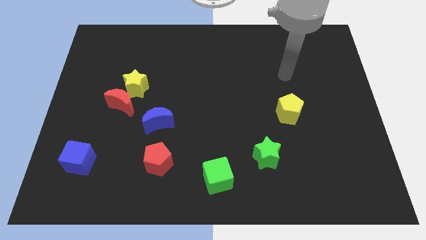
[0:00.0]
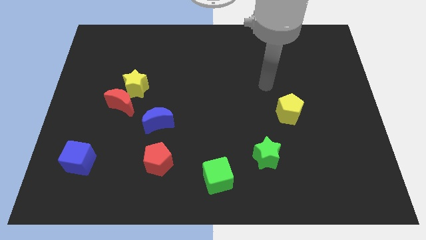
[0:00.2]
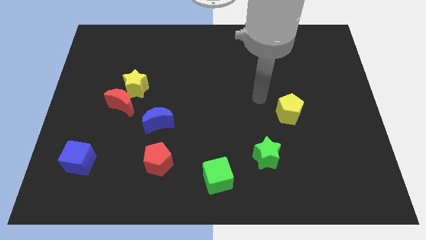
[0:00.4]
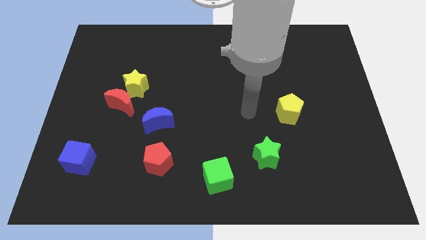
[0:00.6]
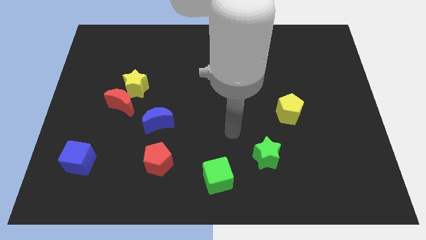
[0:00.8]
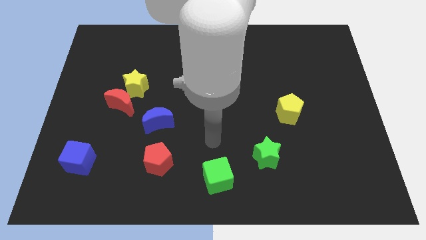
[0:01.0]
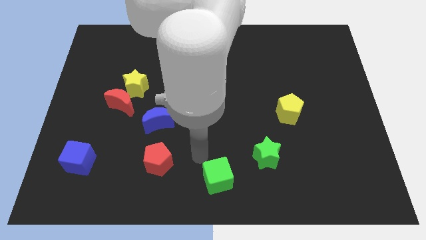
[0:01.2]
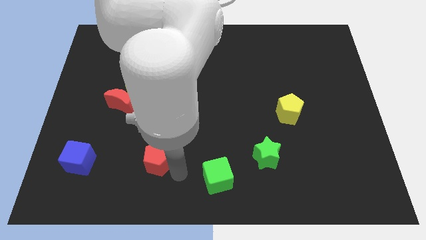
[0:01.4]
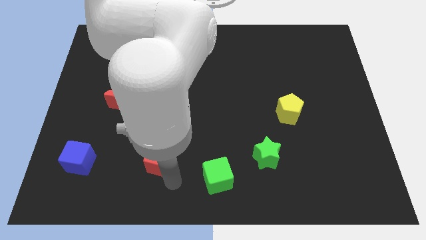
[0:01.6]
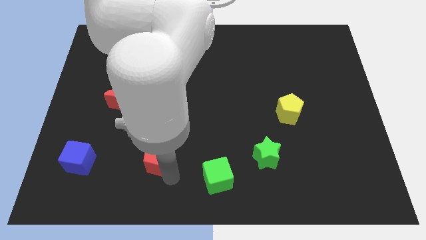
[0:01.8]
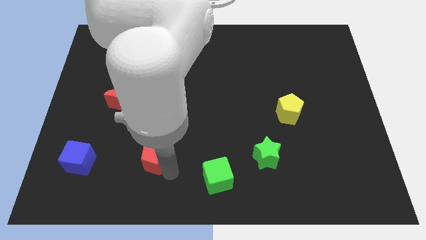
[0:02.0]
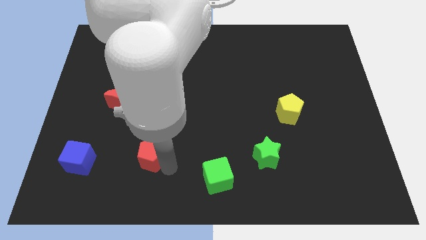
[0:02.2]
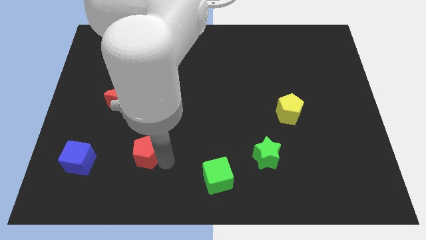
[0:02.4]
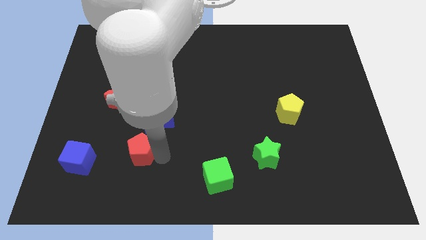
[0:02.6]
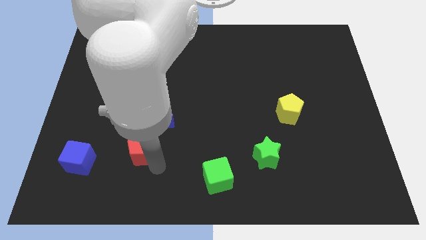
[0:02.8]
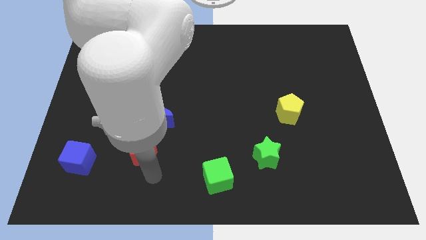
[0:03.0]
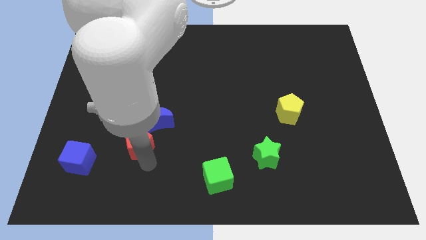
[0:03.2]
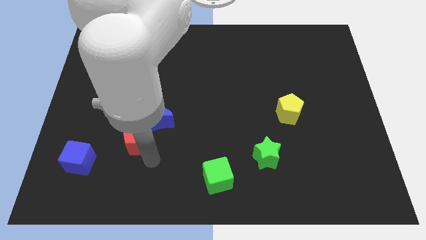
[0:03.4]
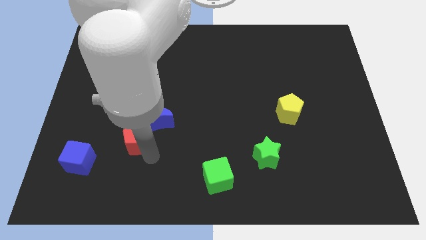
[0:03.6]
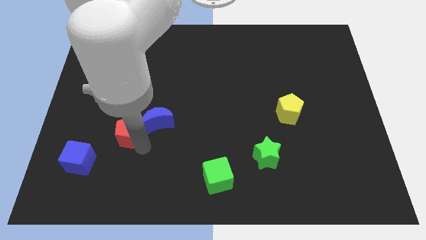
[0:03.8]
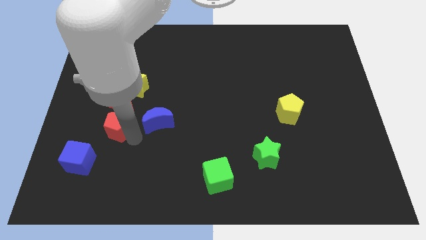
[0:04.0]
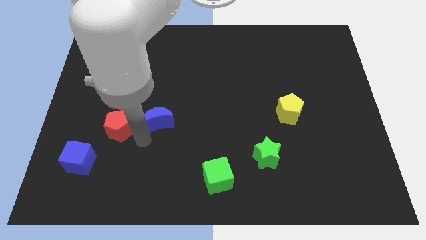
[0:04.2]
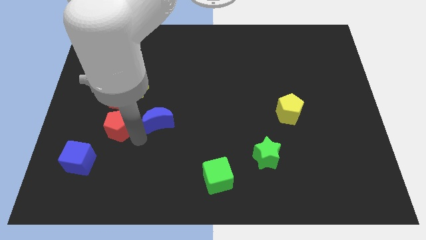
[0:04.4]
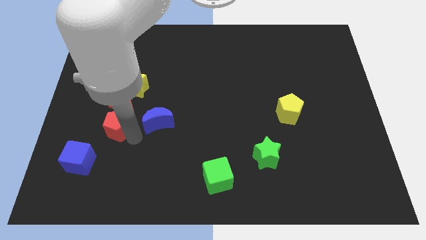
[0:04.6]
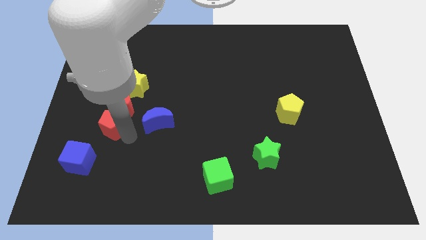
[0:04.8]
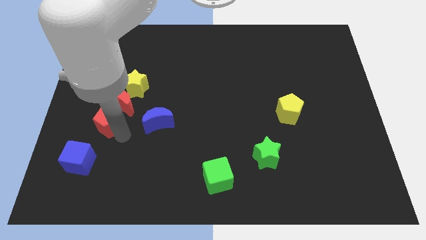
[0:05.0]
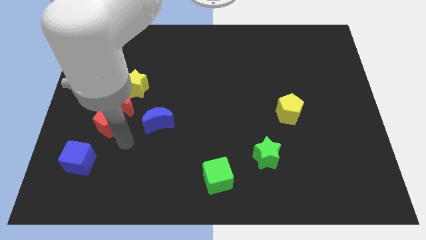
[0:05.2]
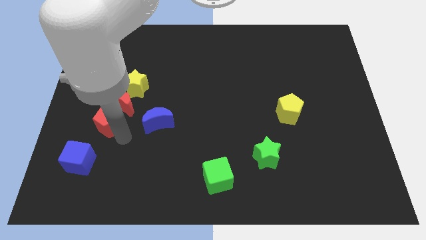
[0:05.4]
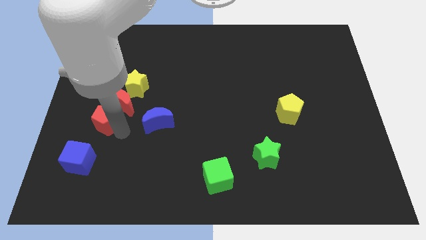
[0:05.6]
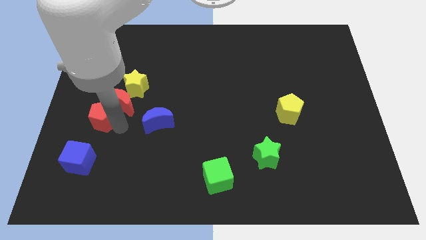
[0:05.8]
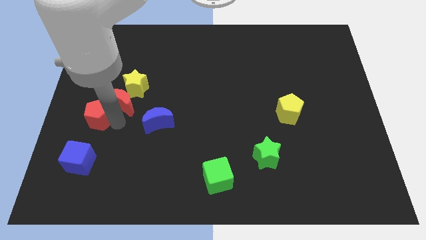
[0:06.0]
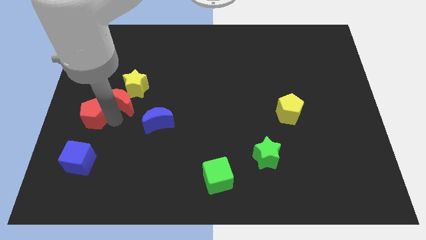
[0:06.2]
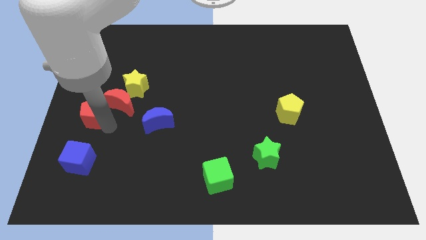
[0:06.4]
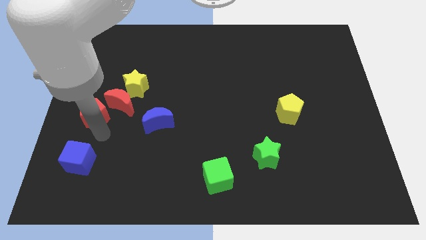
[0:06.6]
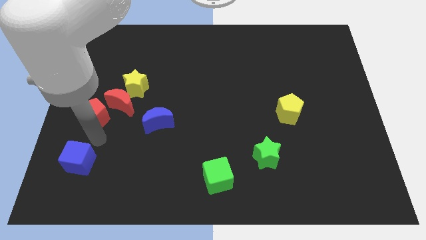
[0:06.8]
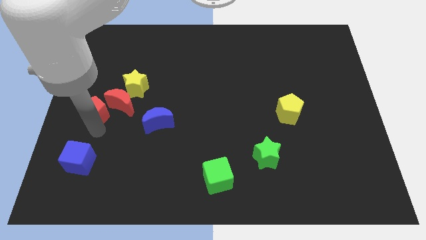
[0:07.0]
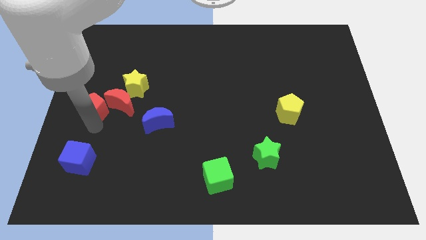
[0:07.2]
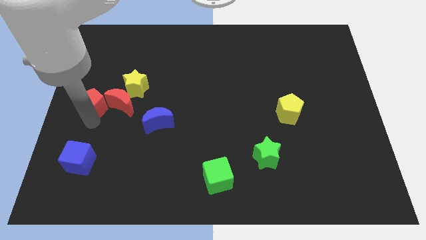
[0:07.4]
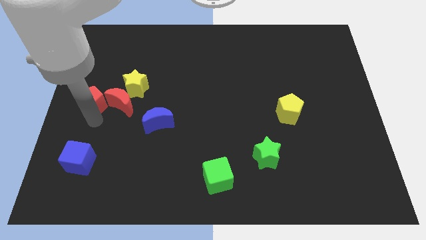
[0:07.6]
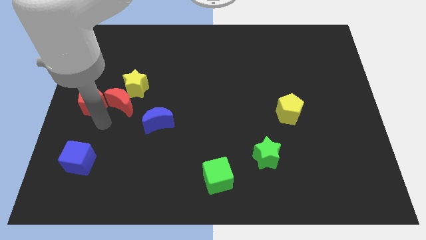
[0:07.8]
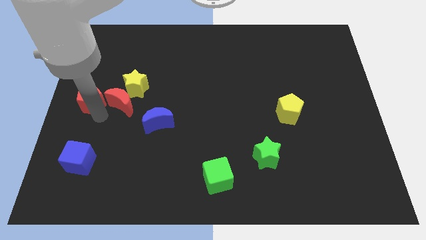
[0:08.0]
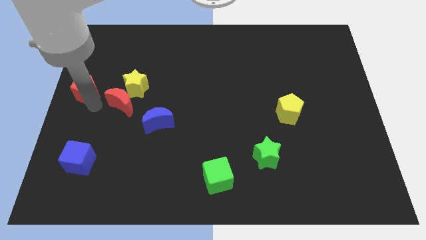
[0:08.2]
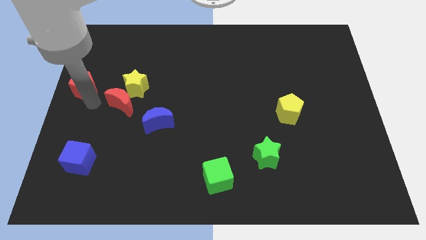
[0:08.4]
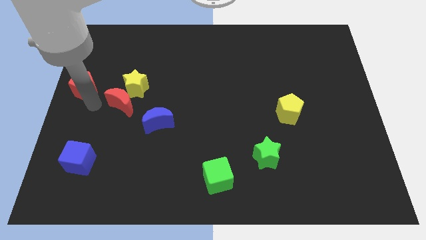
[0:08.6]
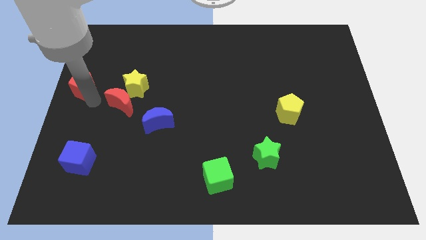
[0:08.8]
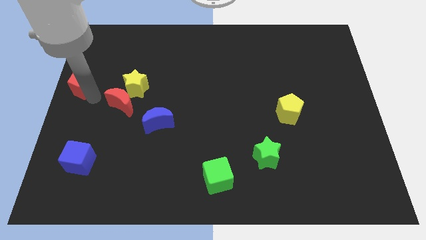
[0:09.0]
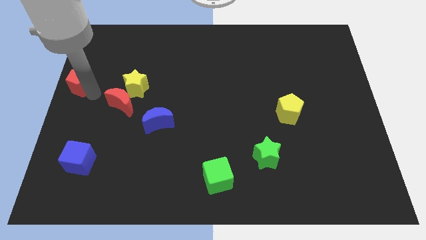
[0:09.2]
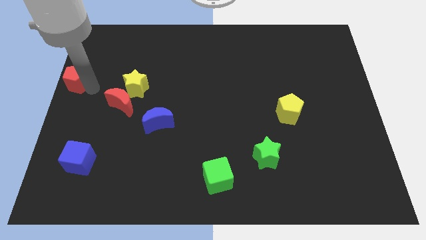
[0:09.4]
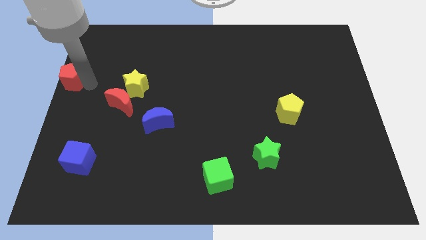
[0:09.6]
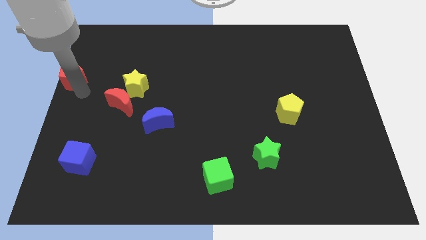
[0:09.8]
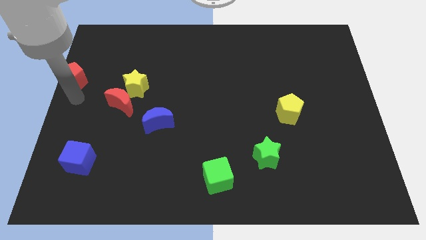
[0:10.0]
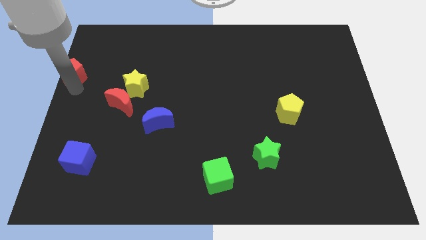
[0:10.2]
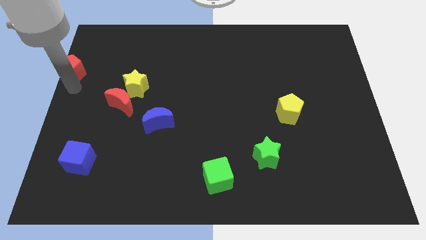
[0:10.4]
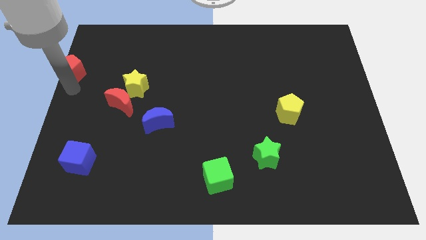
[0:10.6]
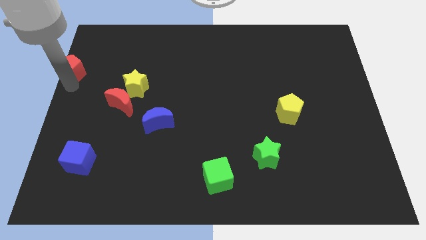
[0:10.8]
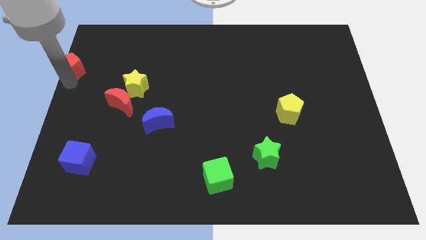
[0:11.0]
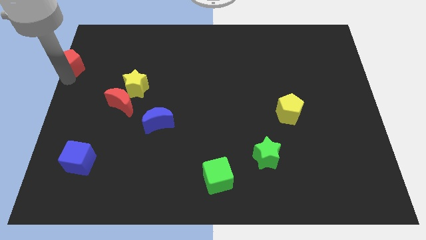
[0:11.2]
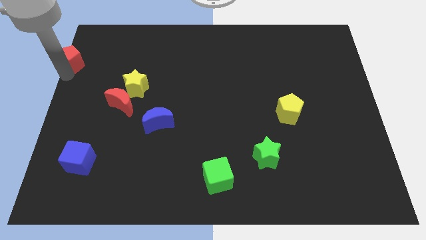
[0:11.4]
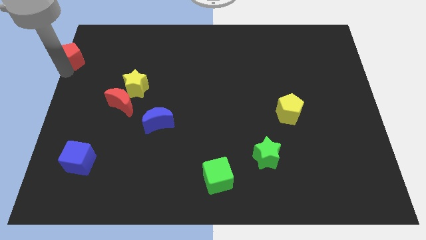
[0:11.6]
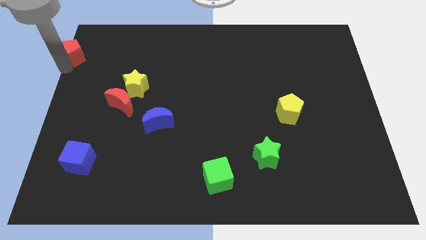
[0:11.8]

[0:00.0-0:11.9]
put the red pentagon to the top left of the board
